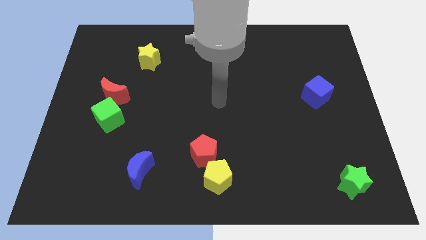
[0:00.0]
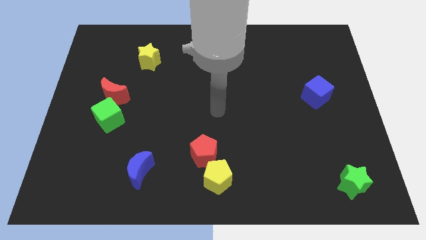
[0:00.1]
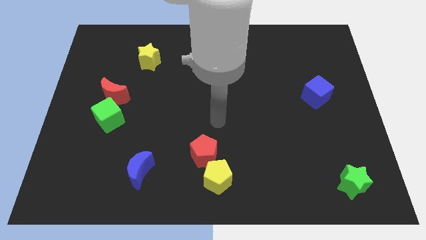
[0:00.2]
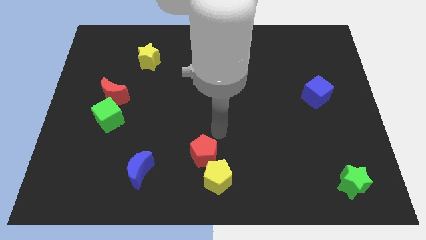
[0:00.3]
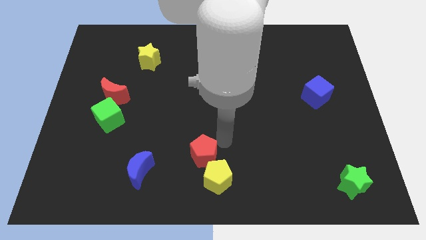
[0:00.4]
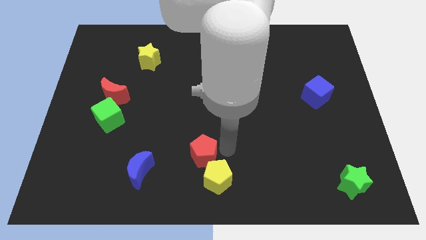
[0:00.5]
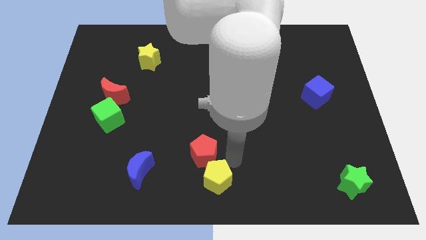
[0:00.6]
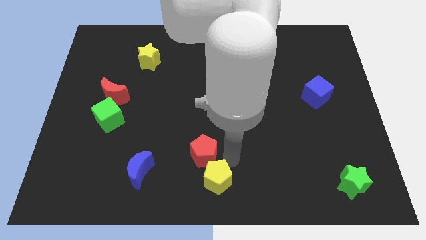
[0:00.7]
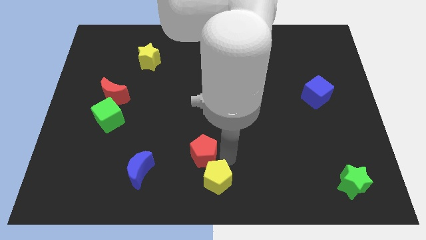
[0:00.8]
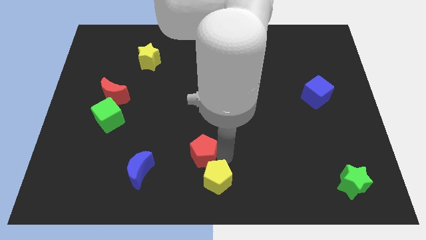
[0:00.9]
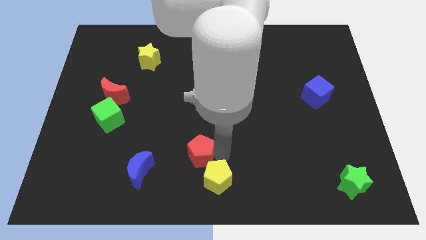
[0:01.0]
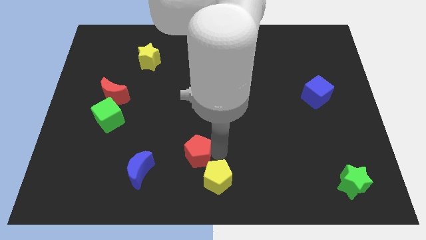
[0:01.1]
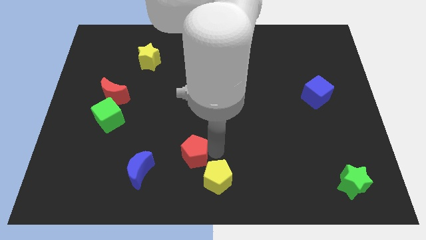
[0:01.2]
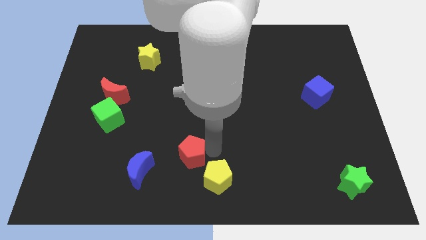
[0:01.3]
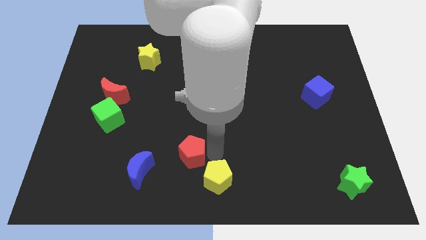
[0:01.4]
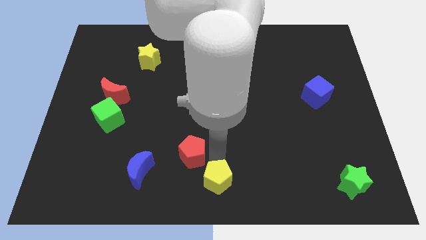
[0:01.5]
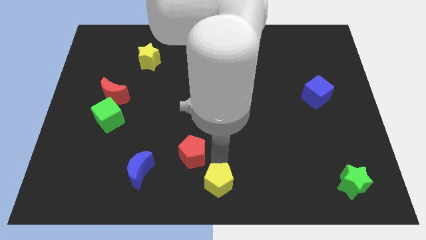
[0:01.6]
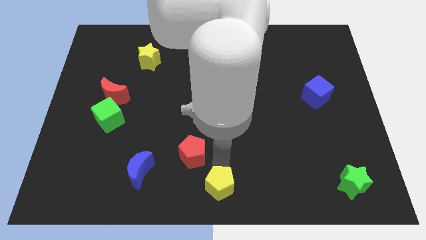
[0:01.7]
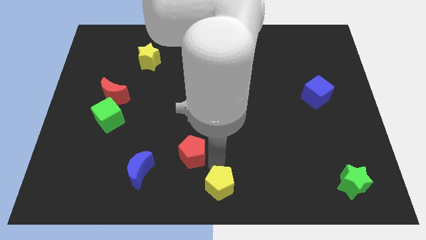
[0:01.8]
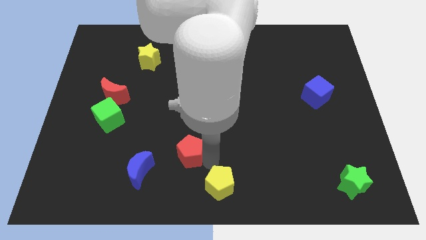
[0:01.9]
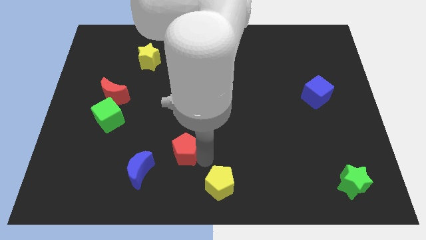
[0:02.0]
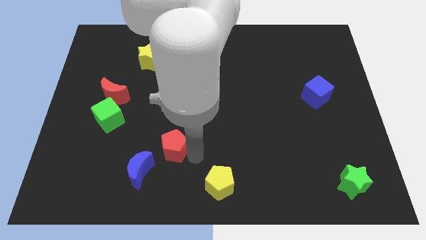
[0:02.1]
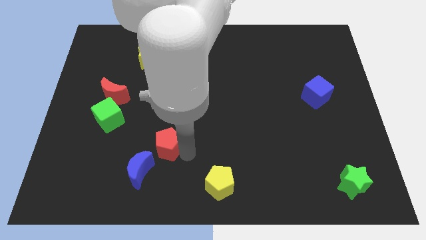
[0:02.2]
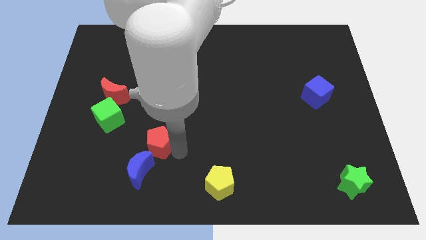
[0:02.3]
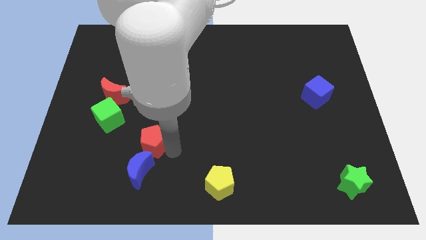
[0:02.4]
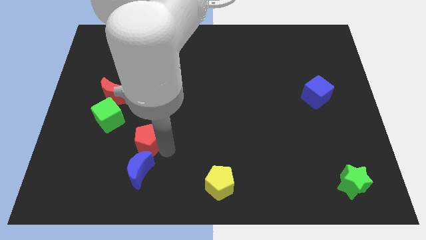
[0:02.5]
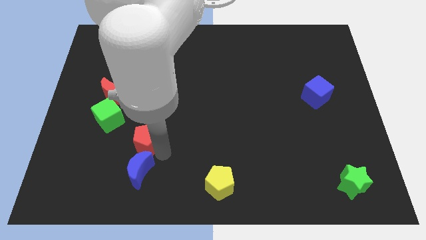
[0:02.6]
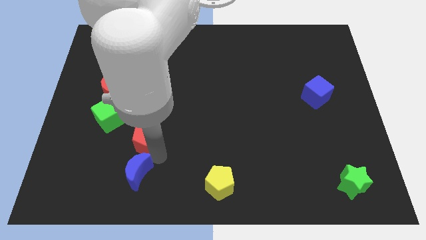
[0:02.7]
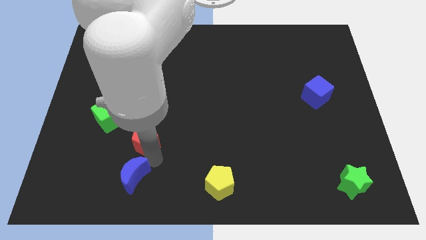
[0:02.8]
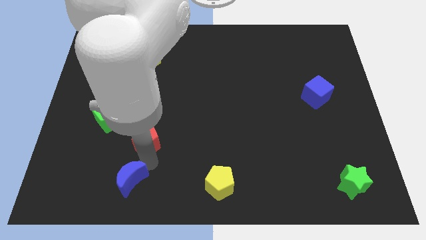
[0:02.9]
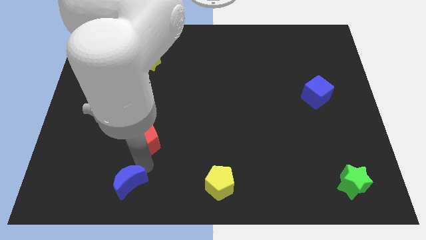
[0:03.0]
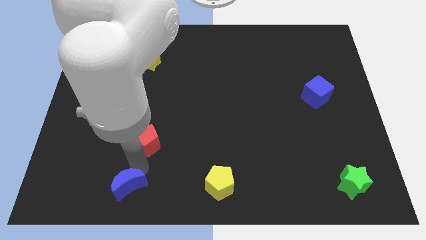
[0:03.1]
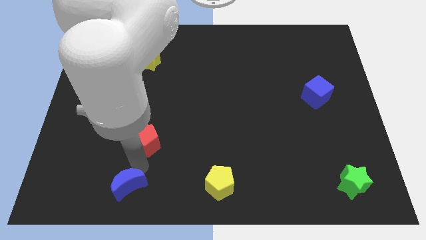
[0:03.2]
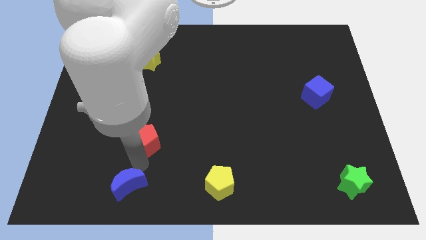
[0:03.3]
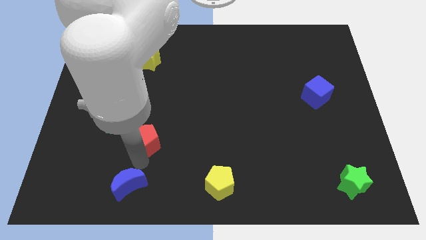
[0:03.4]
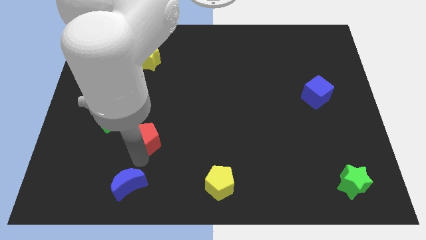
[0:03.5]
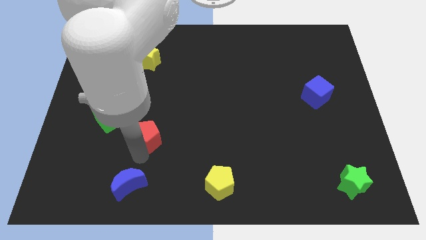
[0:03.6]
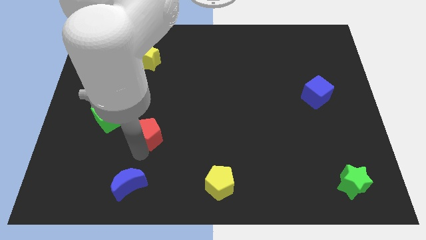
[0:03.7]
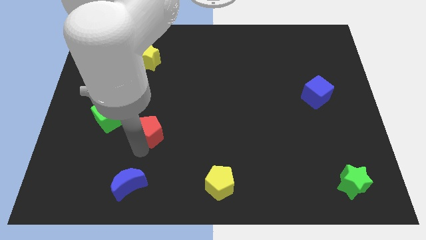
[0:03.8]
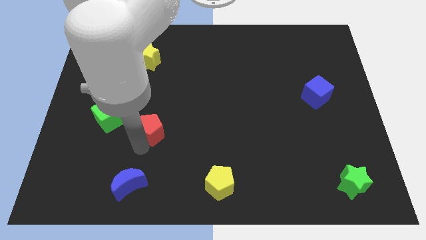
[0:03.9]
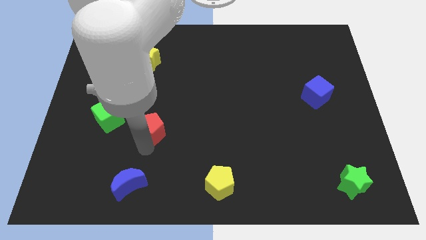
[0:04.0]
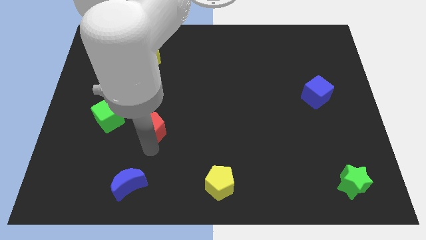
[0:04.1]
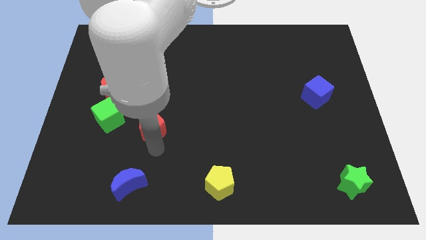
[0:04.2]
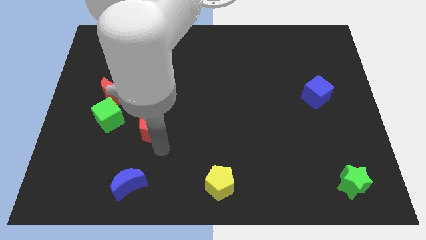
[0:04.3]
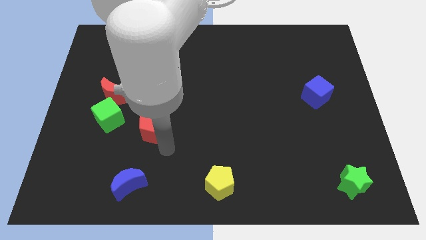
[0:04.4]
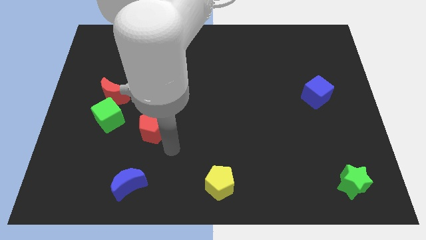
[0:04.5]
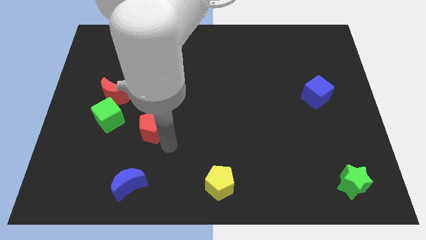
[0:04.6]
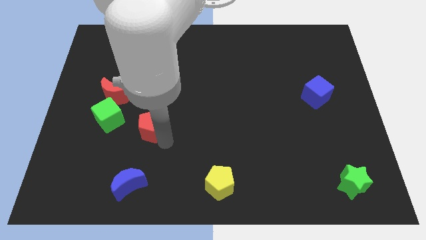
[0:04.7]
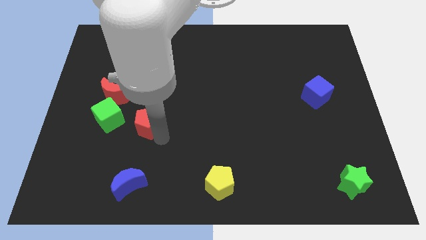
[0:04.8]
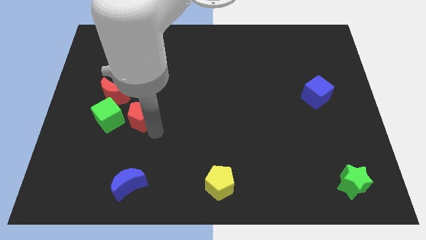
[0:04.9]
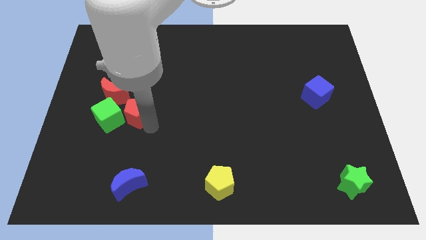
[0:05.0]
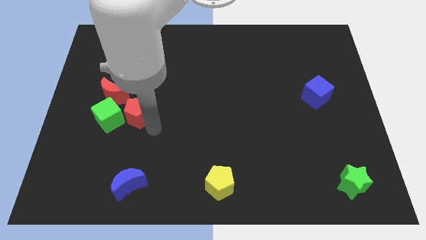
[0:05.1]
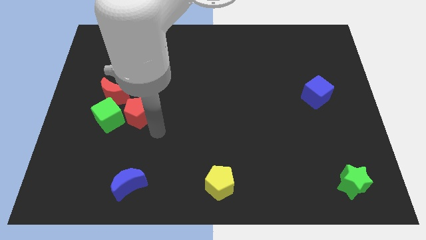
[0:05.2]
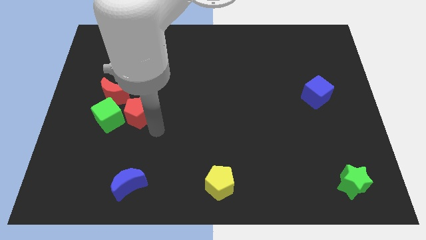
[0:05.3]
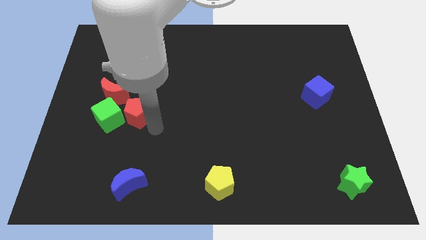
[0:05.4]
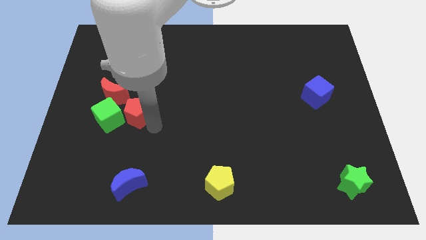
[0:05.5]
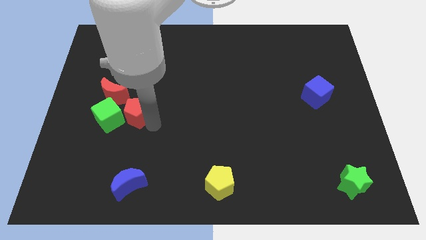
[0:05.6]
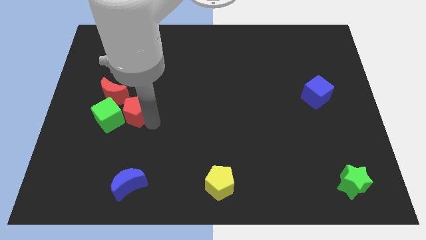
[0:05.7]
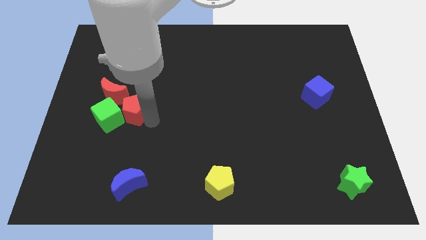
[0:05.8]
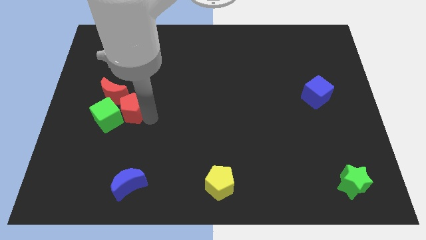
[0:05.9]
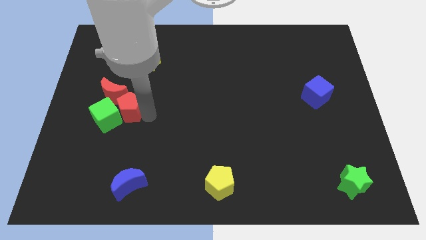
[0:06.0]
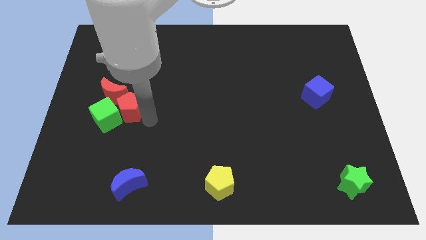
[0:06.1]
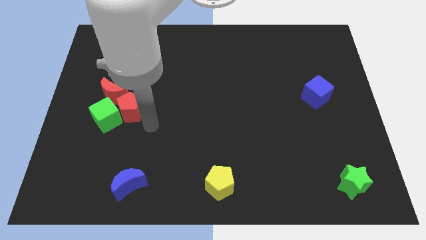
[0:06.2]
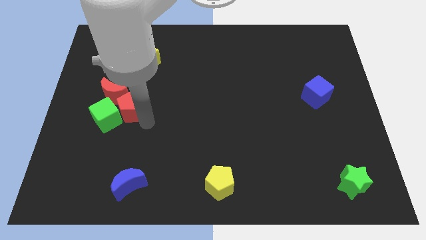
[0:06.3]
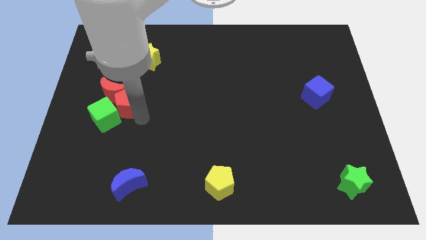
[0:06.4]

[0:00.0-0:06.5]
move the red pentagon close to the red moon

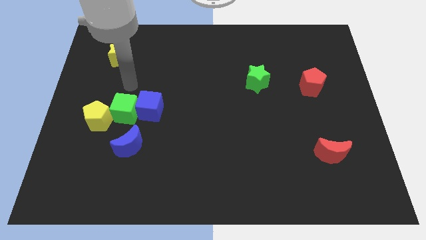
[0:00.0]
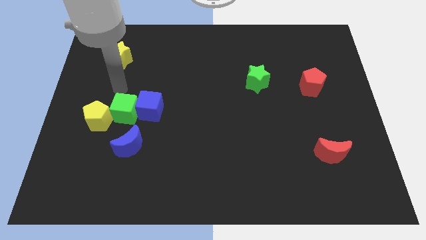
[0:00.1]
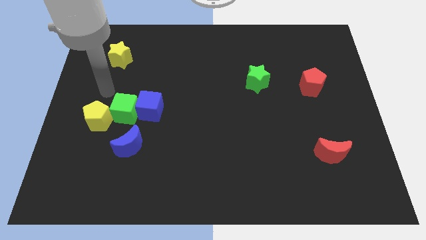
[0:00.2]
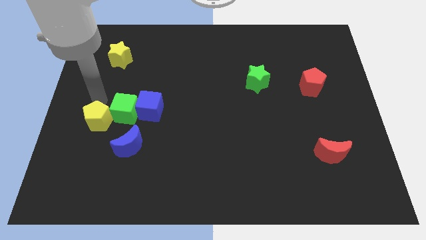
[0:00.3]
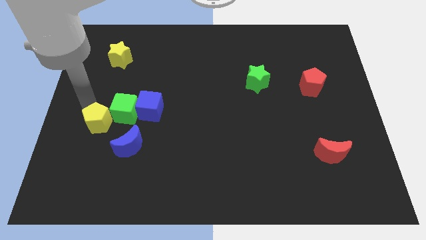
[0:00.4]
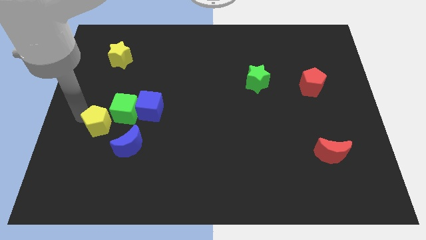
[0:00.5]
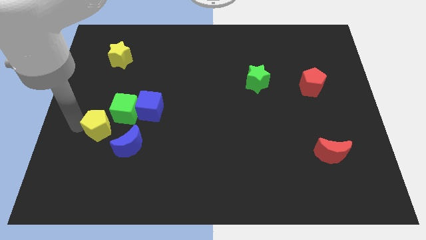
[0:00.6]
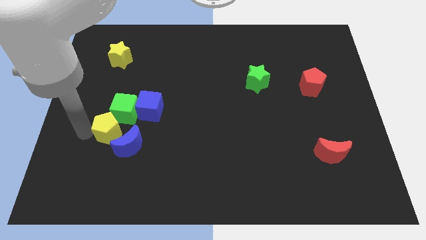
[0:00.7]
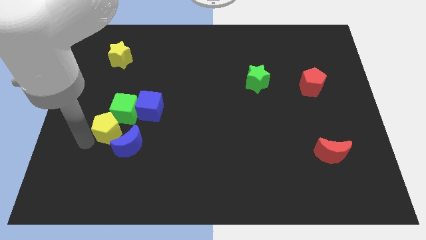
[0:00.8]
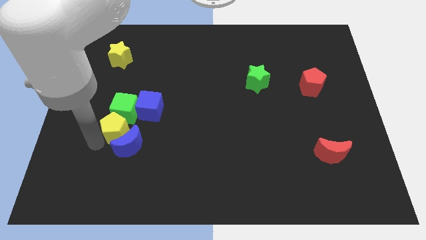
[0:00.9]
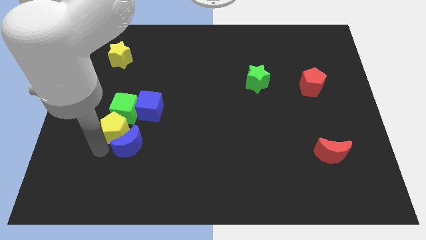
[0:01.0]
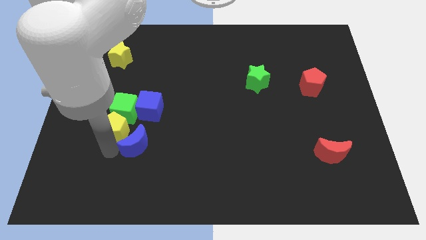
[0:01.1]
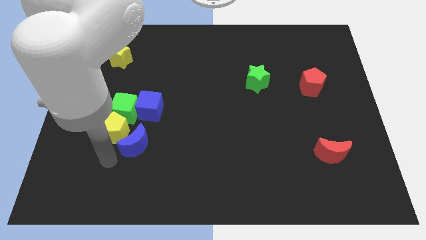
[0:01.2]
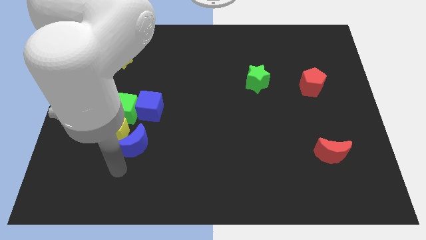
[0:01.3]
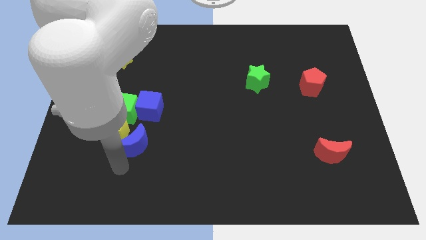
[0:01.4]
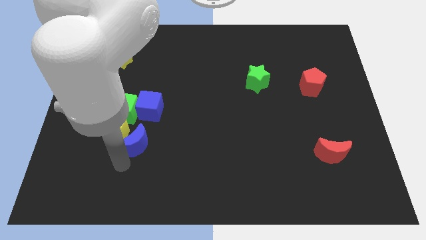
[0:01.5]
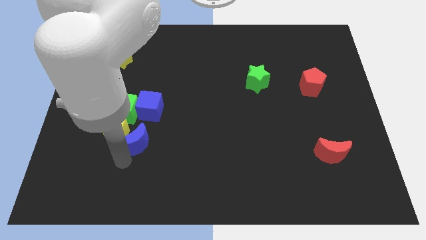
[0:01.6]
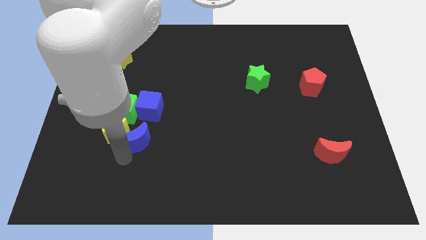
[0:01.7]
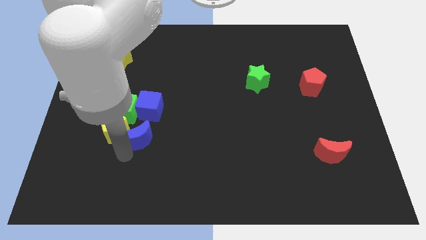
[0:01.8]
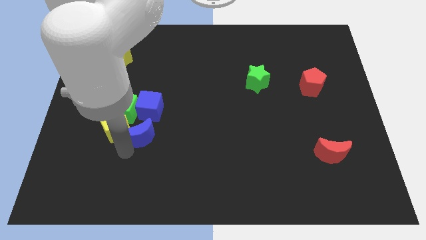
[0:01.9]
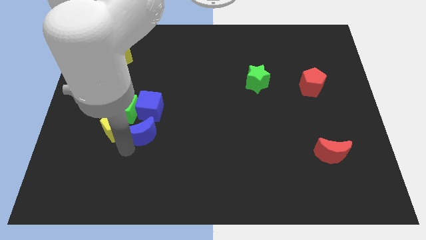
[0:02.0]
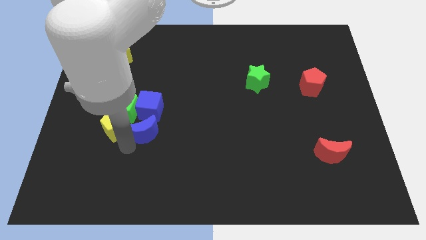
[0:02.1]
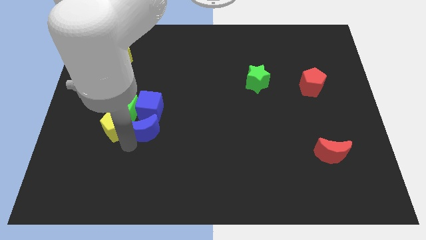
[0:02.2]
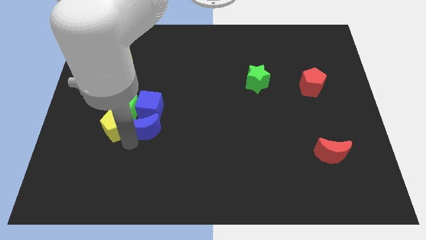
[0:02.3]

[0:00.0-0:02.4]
slide the blue moon to the blue cube
